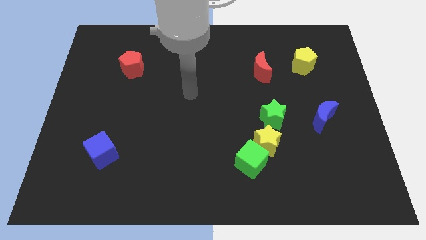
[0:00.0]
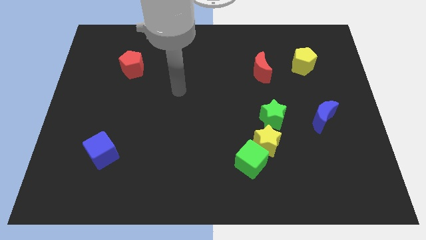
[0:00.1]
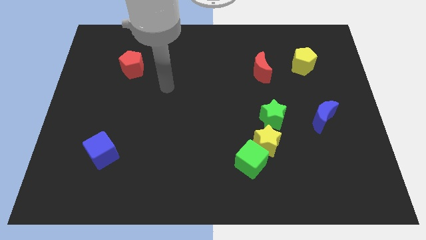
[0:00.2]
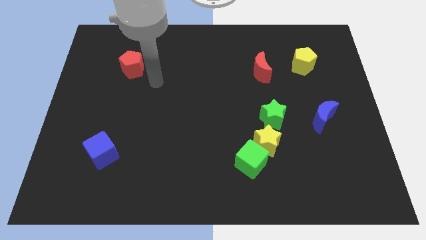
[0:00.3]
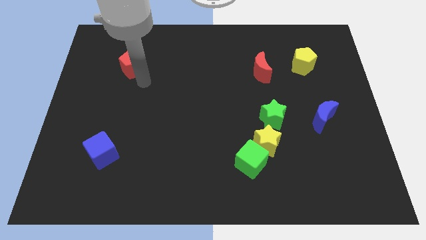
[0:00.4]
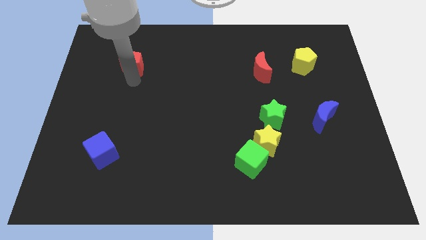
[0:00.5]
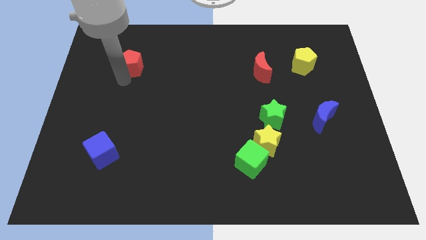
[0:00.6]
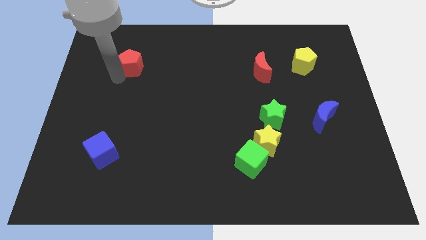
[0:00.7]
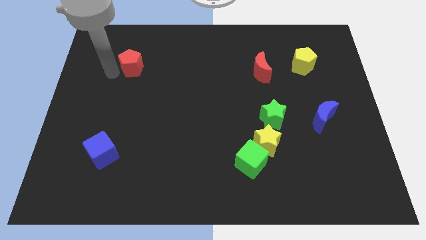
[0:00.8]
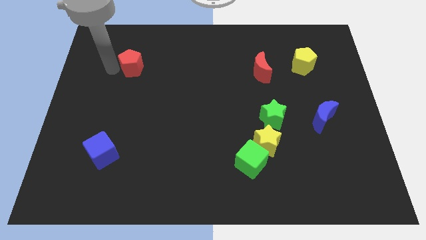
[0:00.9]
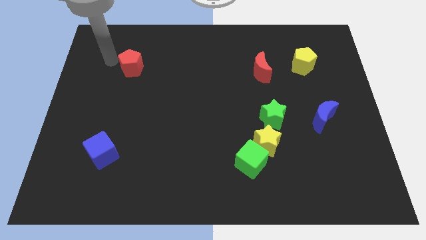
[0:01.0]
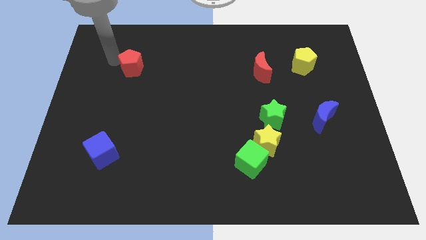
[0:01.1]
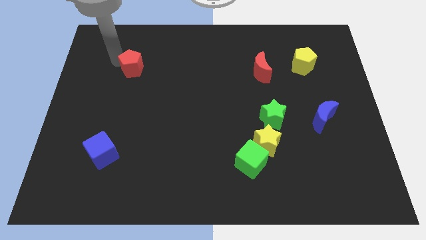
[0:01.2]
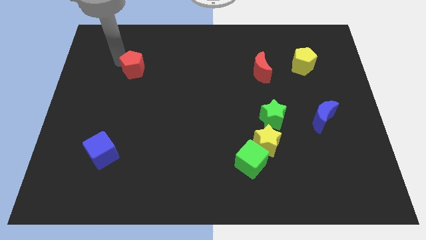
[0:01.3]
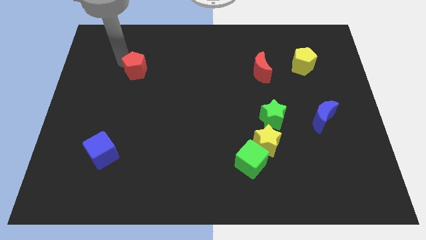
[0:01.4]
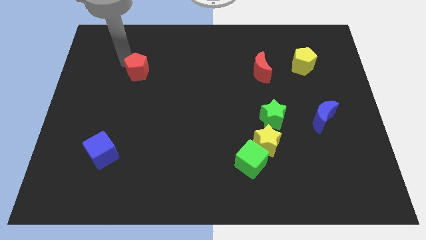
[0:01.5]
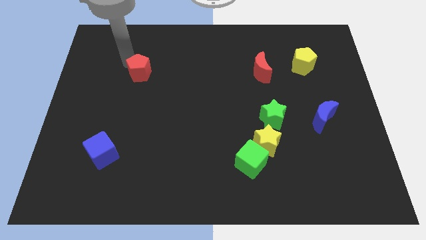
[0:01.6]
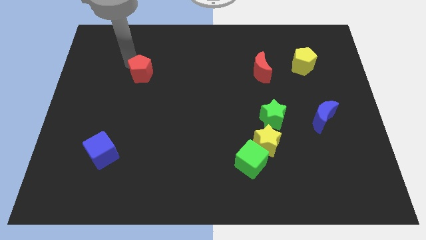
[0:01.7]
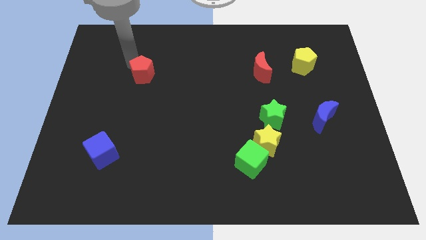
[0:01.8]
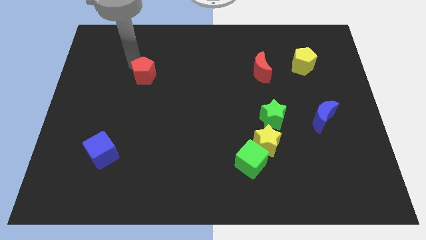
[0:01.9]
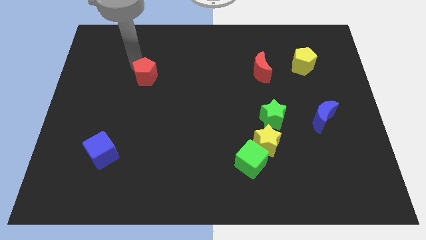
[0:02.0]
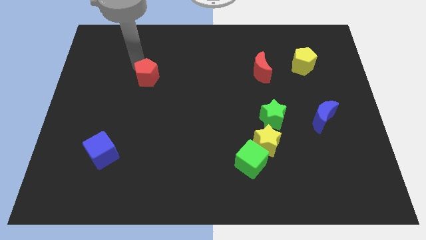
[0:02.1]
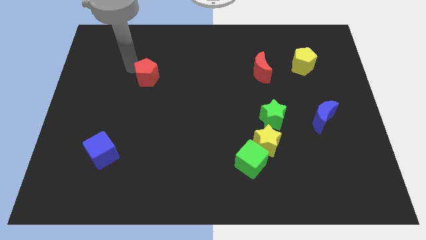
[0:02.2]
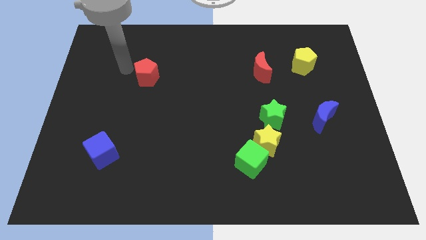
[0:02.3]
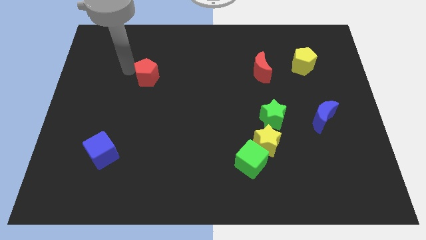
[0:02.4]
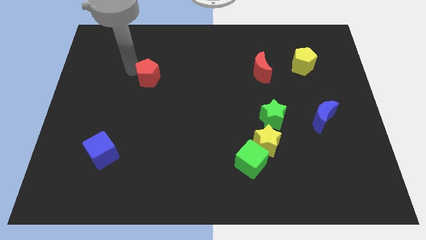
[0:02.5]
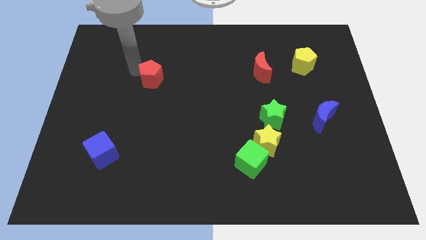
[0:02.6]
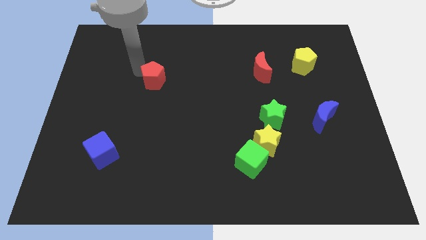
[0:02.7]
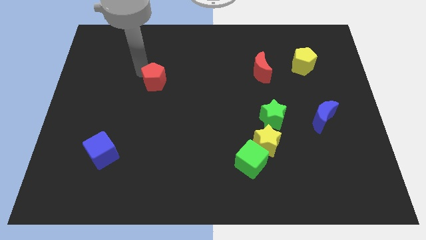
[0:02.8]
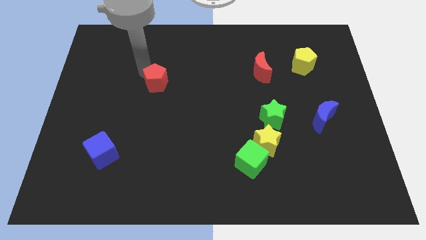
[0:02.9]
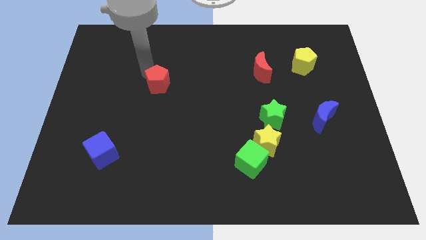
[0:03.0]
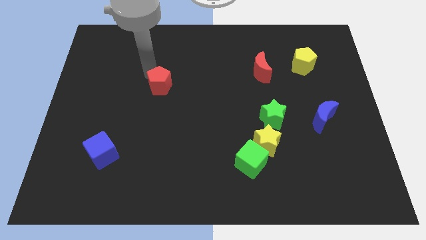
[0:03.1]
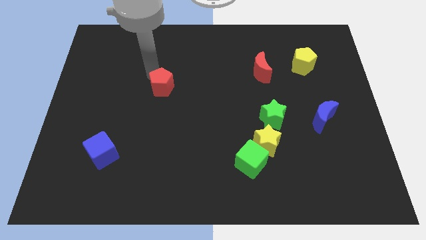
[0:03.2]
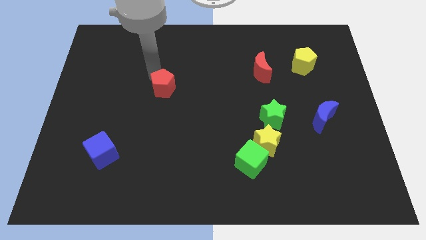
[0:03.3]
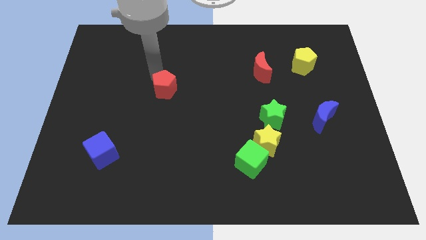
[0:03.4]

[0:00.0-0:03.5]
push the red pentagon to the middle of the board

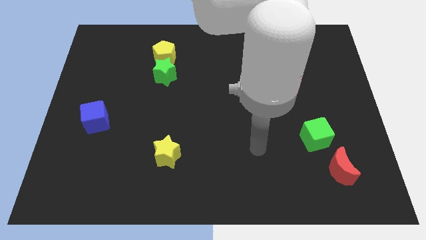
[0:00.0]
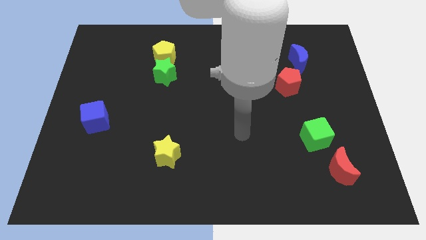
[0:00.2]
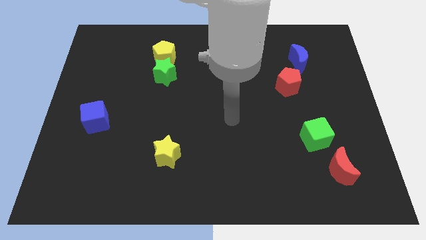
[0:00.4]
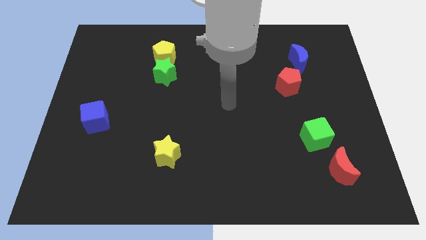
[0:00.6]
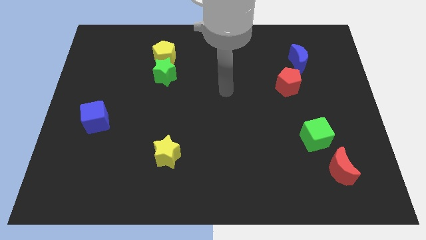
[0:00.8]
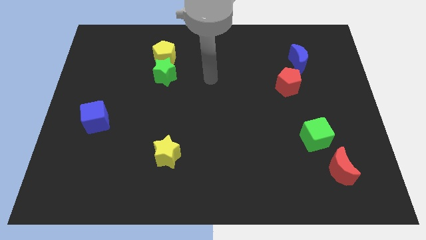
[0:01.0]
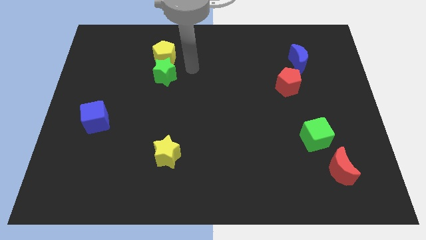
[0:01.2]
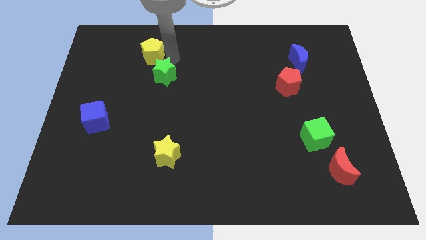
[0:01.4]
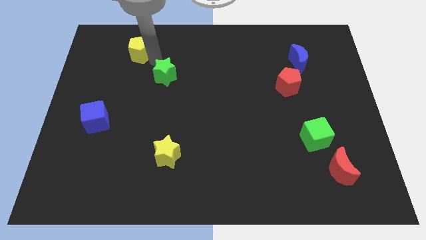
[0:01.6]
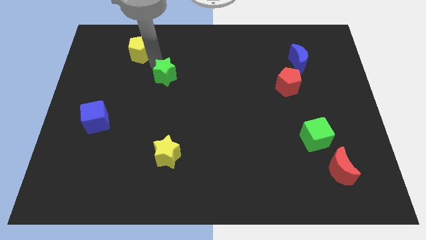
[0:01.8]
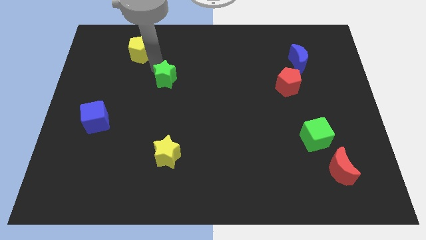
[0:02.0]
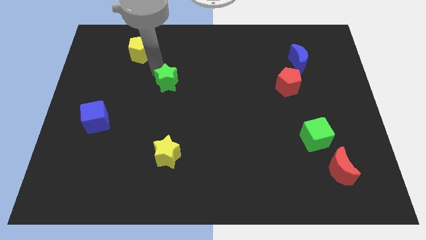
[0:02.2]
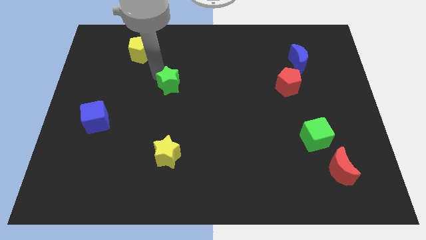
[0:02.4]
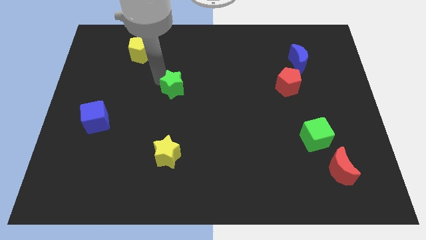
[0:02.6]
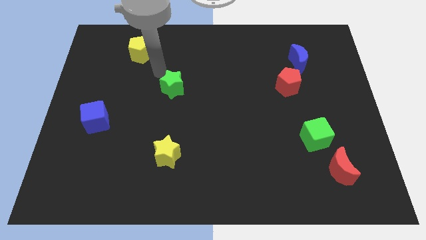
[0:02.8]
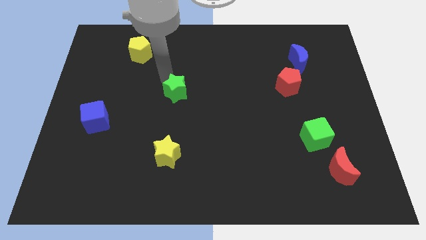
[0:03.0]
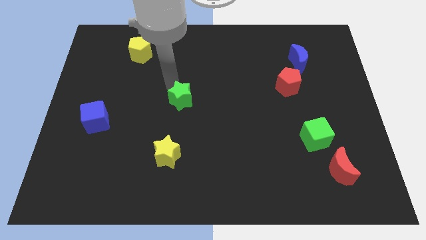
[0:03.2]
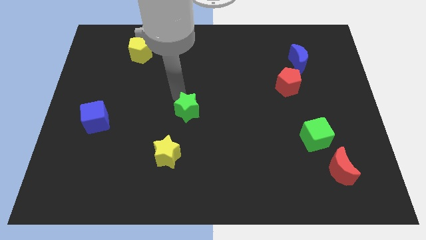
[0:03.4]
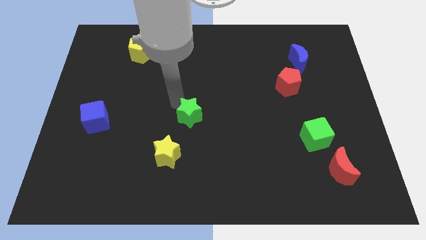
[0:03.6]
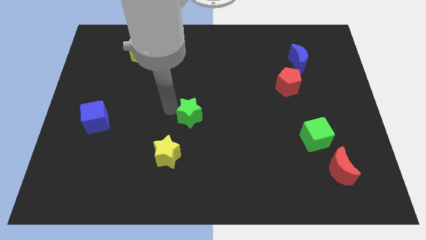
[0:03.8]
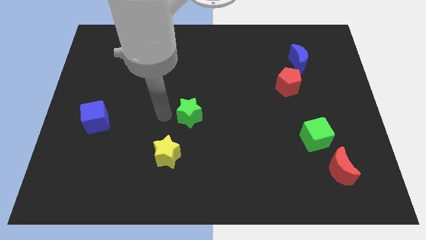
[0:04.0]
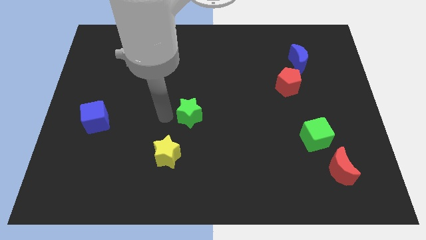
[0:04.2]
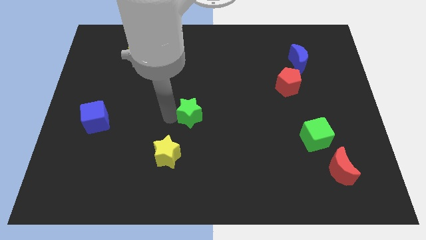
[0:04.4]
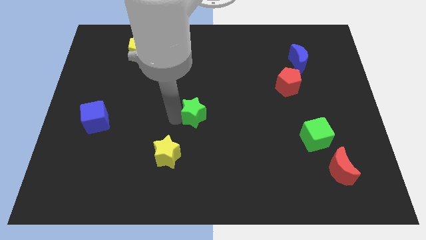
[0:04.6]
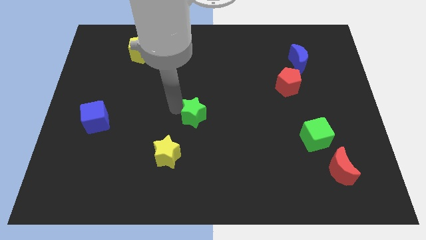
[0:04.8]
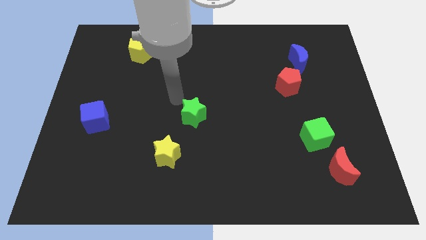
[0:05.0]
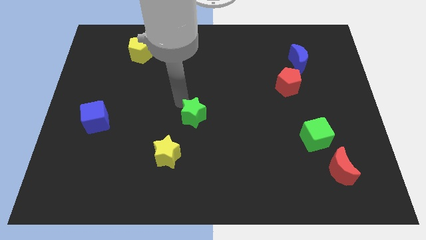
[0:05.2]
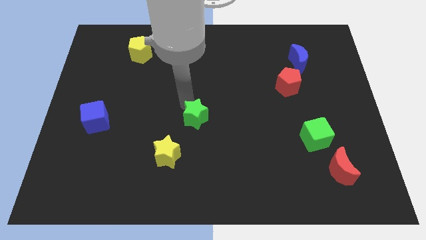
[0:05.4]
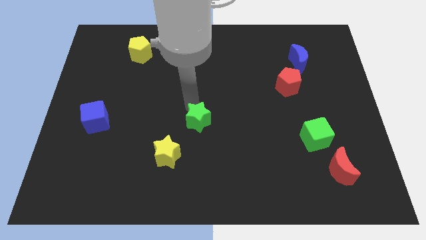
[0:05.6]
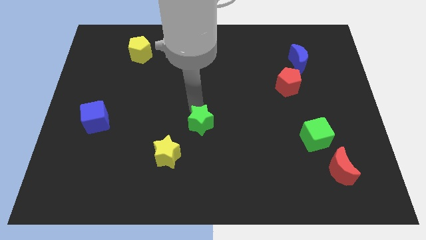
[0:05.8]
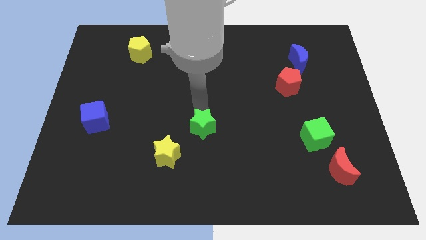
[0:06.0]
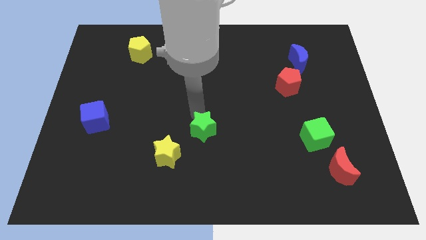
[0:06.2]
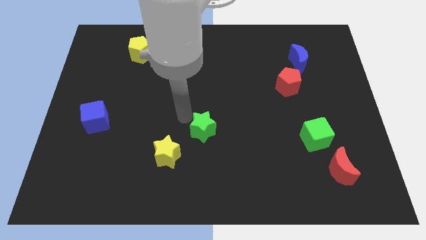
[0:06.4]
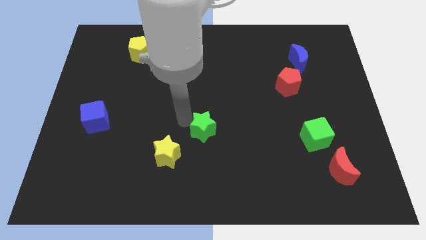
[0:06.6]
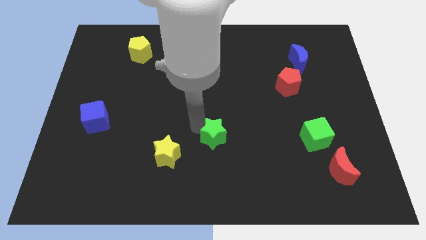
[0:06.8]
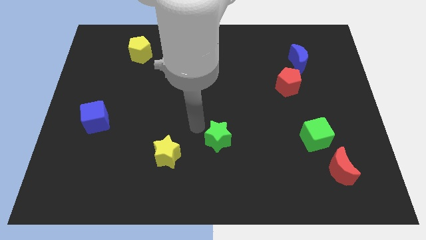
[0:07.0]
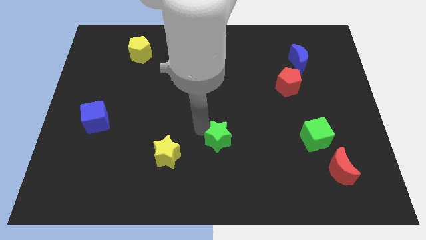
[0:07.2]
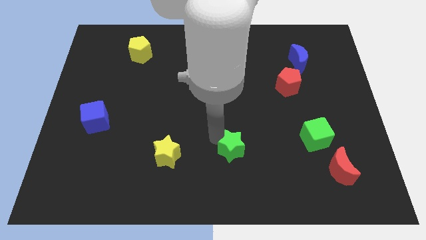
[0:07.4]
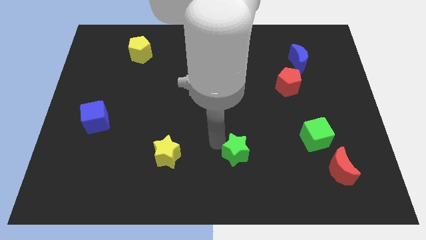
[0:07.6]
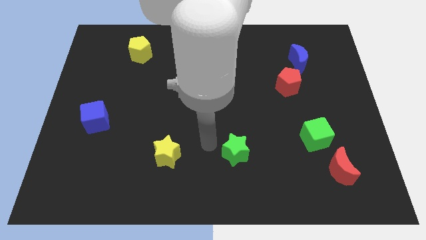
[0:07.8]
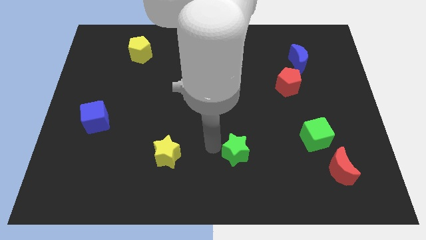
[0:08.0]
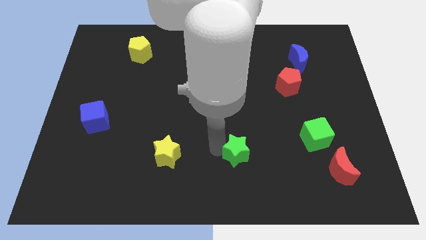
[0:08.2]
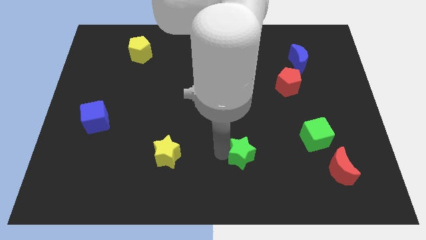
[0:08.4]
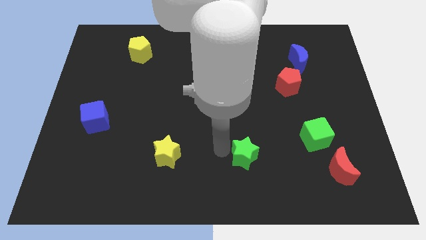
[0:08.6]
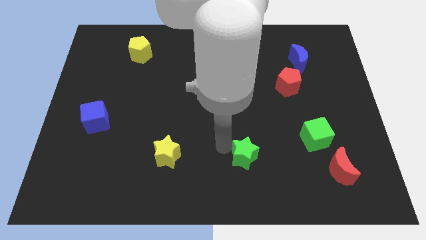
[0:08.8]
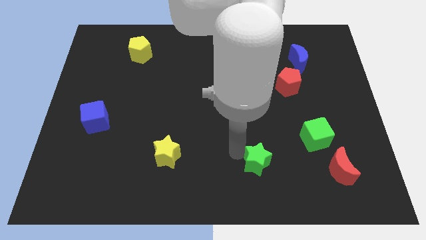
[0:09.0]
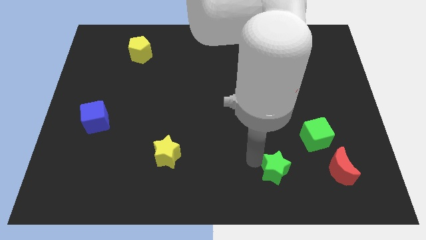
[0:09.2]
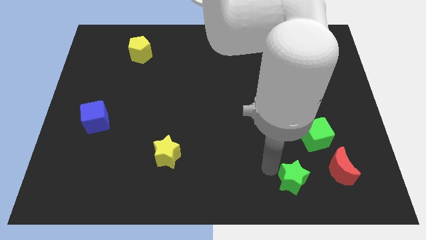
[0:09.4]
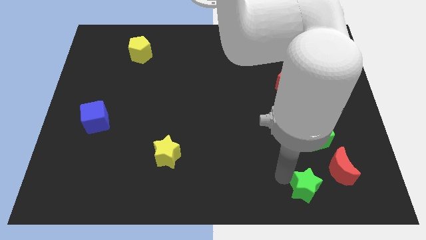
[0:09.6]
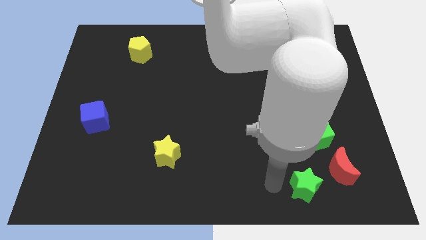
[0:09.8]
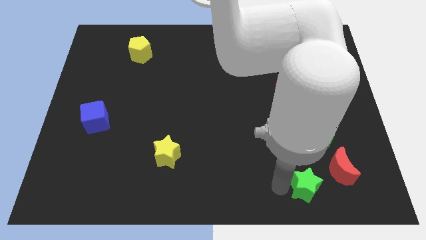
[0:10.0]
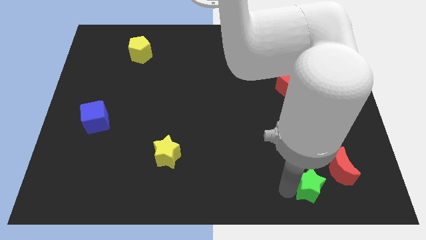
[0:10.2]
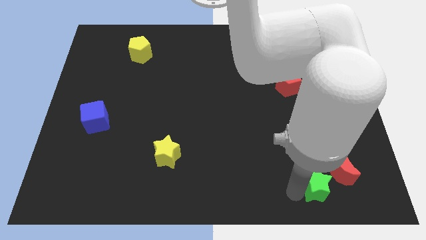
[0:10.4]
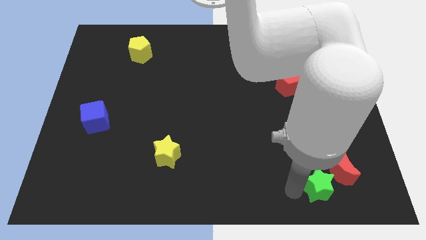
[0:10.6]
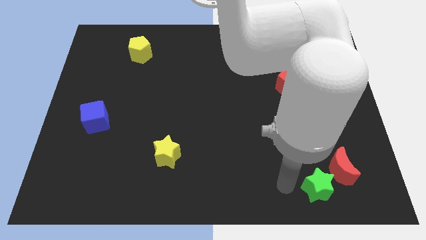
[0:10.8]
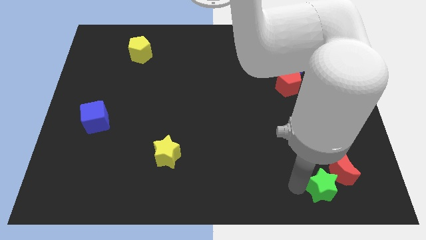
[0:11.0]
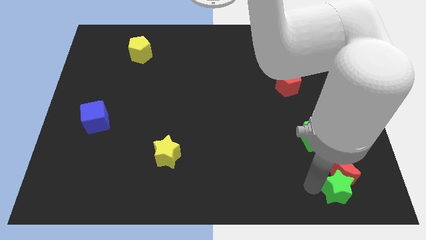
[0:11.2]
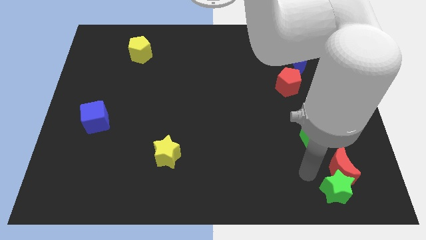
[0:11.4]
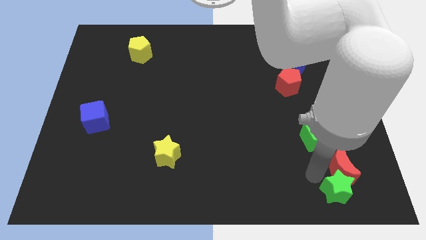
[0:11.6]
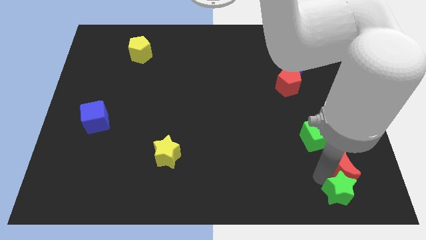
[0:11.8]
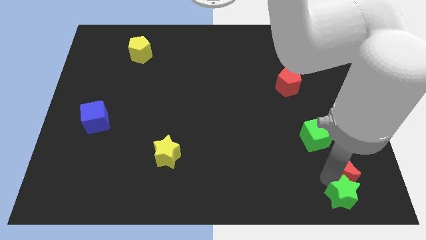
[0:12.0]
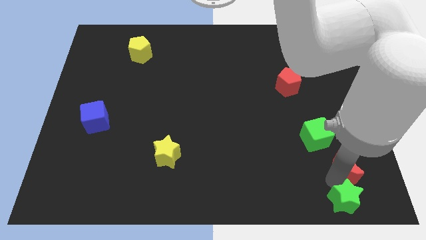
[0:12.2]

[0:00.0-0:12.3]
slide the green star to the bottom right of the board
